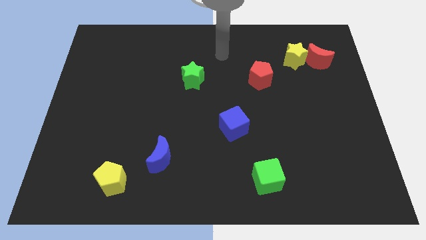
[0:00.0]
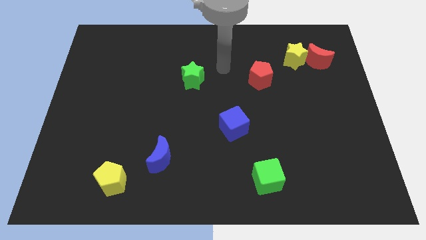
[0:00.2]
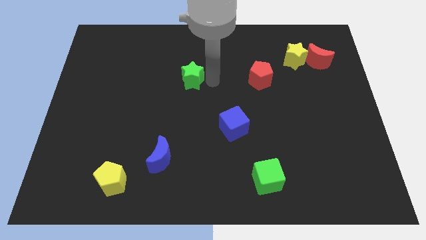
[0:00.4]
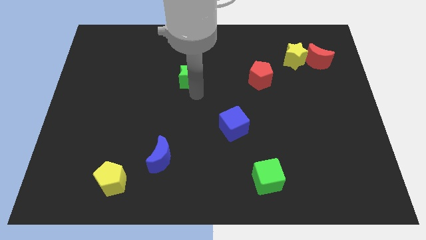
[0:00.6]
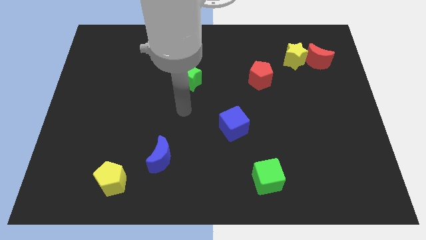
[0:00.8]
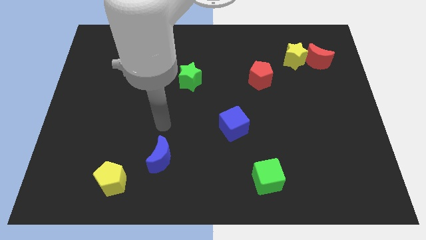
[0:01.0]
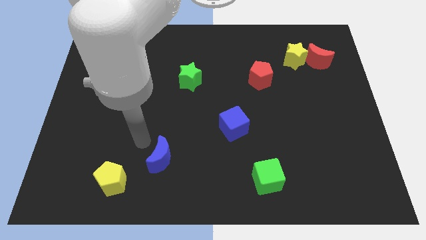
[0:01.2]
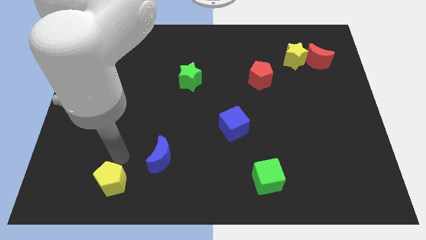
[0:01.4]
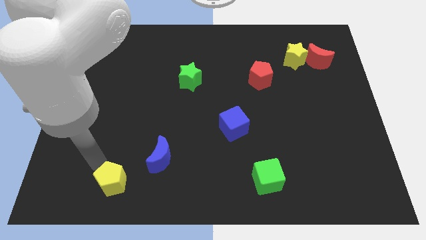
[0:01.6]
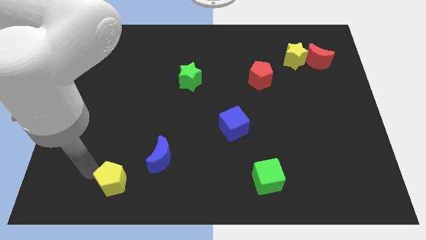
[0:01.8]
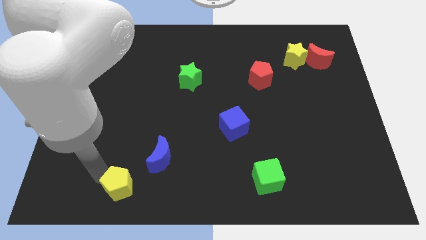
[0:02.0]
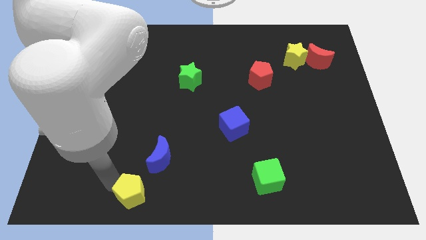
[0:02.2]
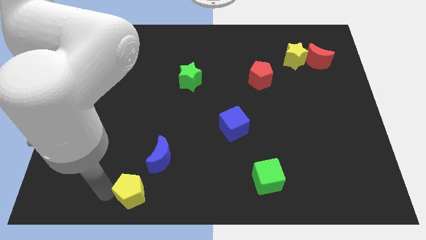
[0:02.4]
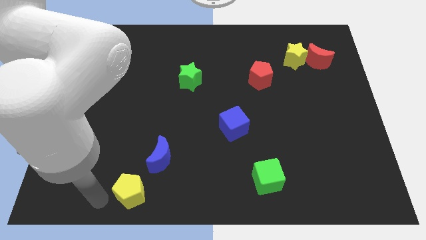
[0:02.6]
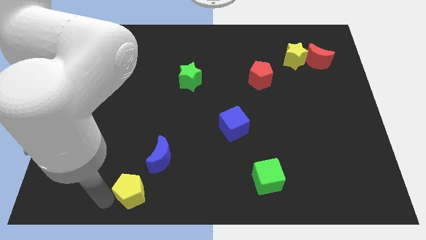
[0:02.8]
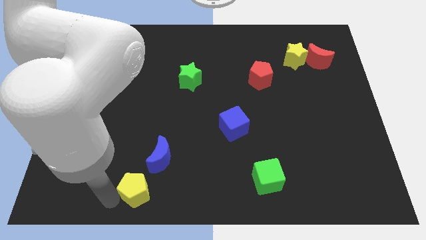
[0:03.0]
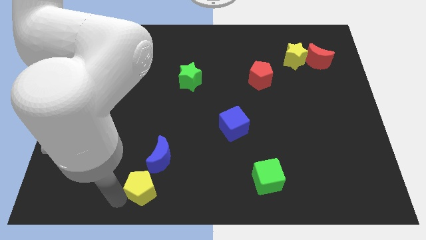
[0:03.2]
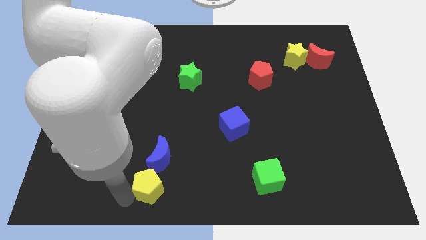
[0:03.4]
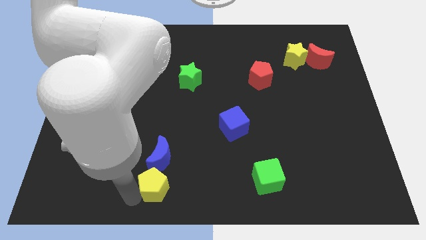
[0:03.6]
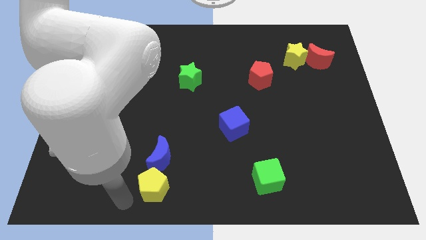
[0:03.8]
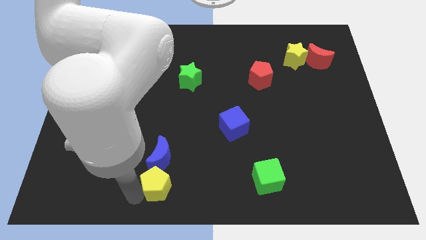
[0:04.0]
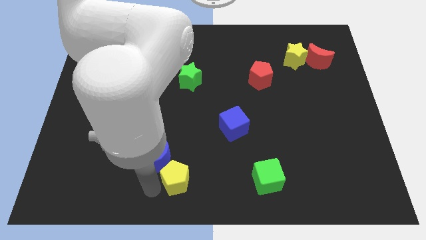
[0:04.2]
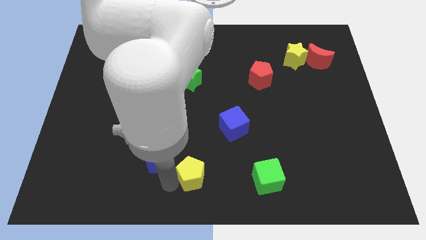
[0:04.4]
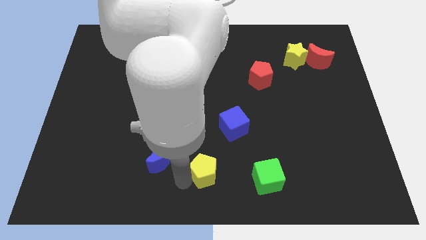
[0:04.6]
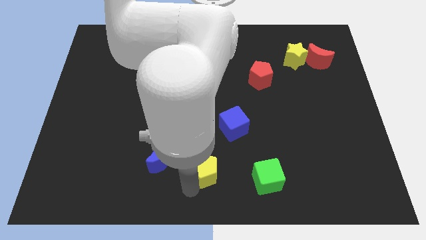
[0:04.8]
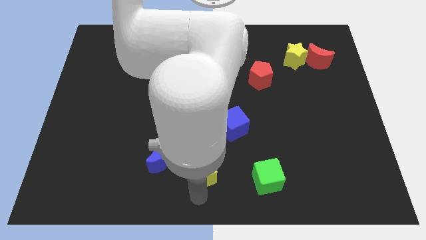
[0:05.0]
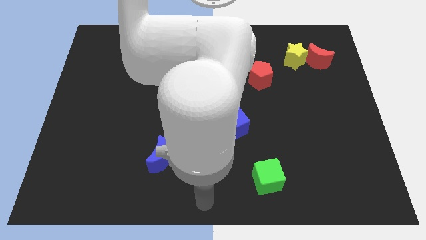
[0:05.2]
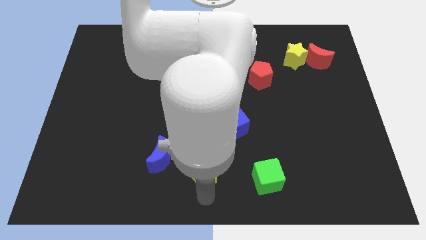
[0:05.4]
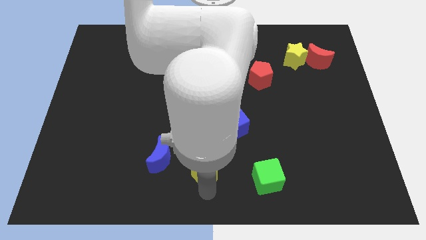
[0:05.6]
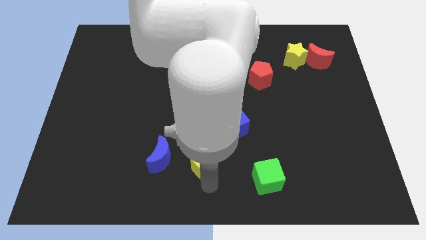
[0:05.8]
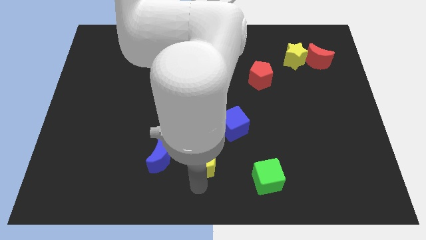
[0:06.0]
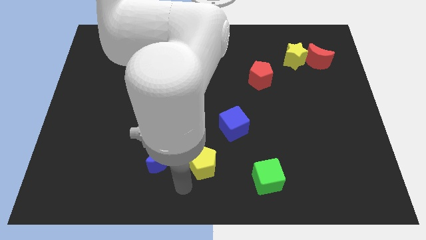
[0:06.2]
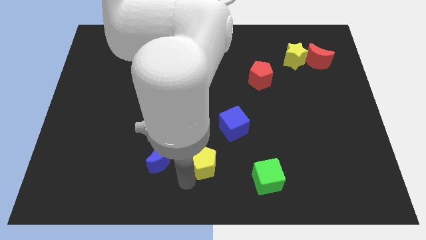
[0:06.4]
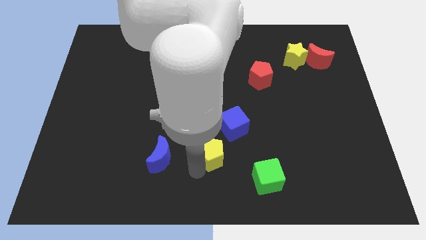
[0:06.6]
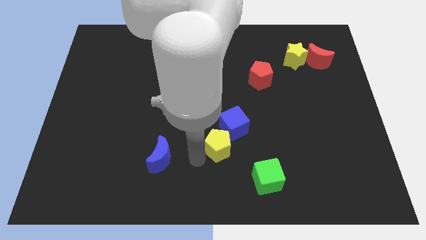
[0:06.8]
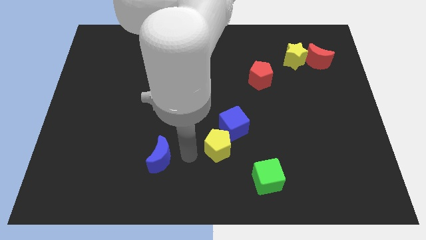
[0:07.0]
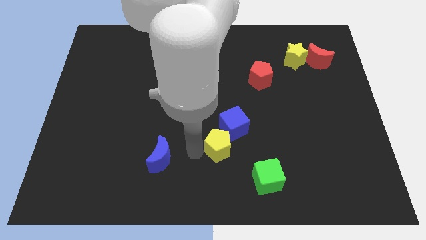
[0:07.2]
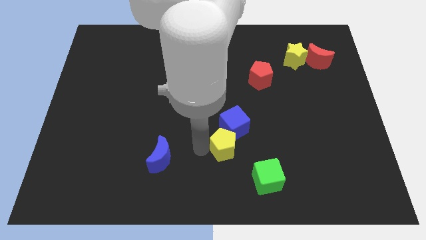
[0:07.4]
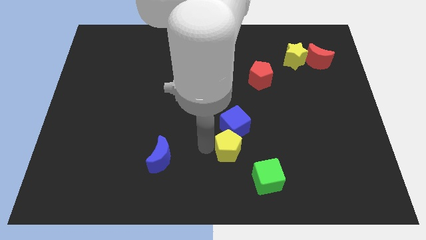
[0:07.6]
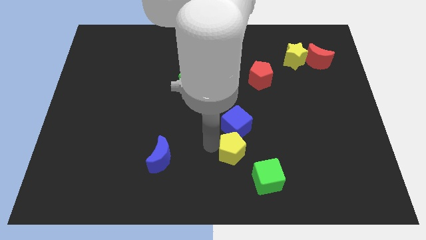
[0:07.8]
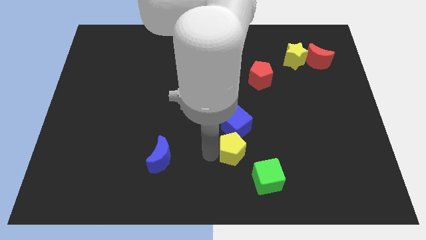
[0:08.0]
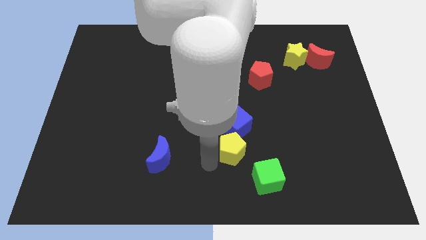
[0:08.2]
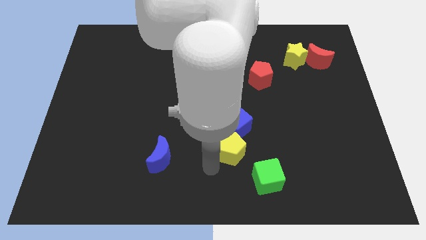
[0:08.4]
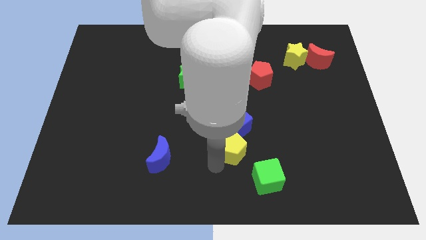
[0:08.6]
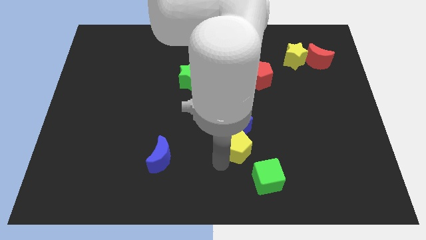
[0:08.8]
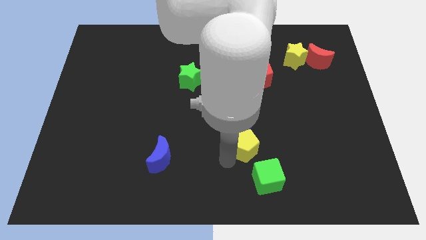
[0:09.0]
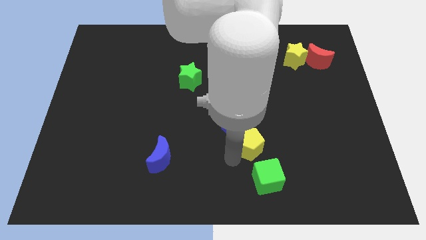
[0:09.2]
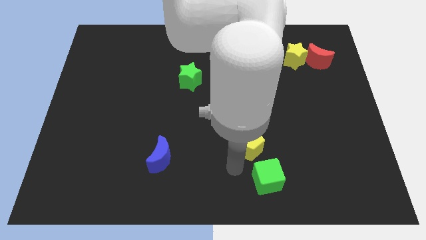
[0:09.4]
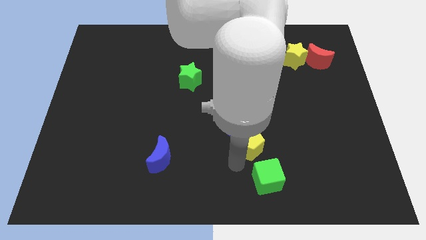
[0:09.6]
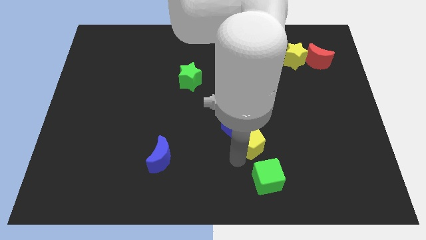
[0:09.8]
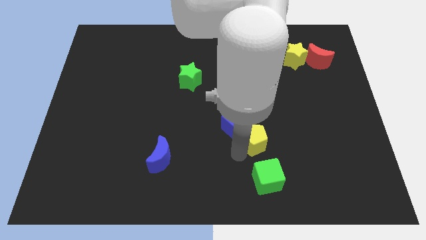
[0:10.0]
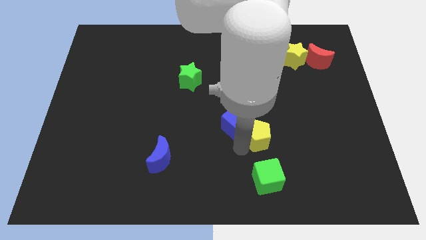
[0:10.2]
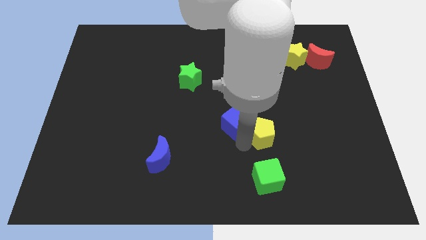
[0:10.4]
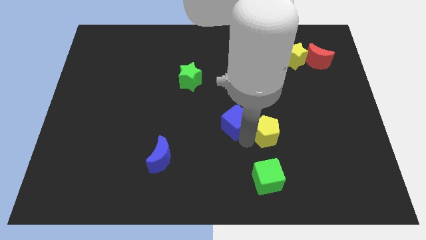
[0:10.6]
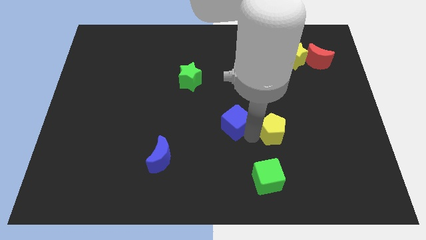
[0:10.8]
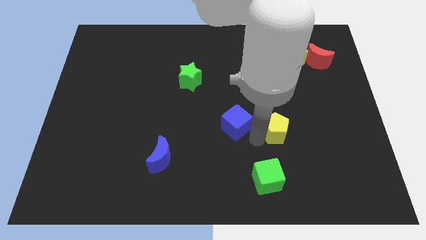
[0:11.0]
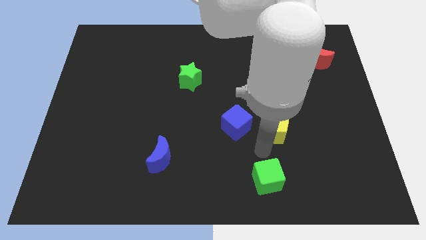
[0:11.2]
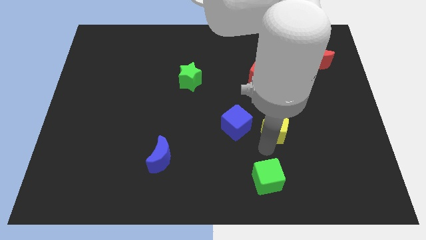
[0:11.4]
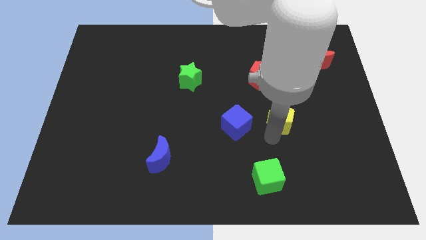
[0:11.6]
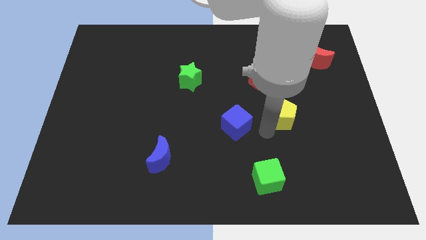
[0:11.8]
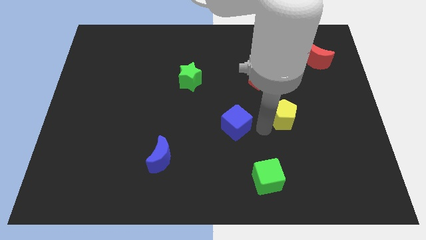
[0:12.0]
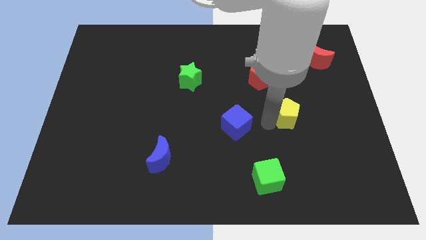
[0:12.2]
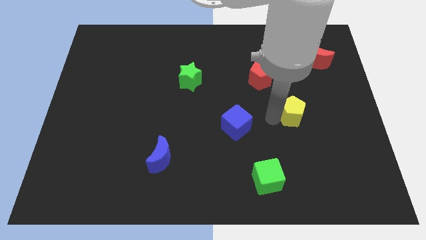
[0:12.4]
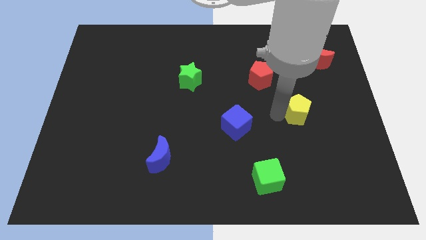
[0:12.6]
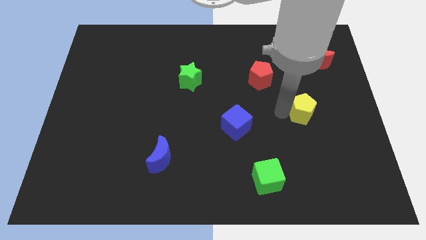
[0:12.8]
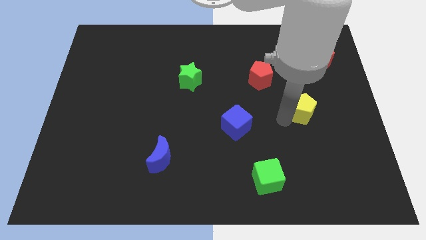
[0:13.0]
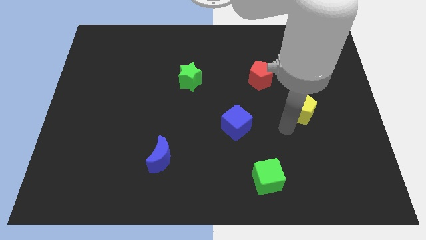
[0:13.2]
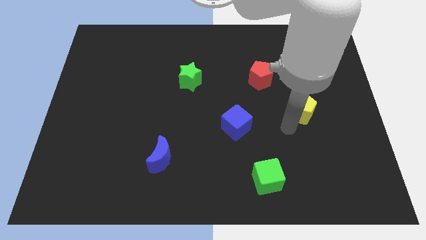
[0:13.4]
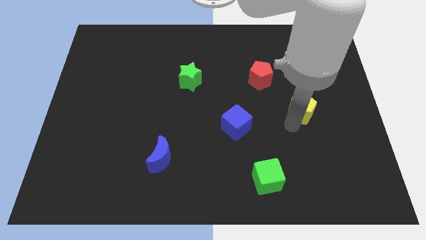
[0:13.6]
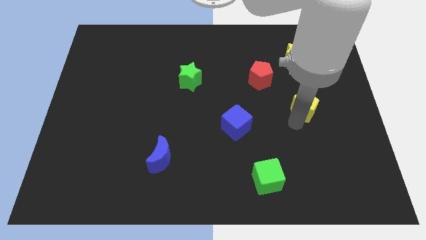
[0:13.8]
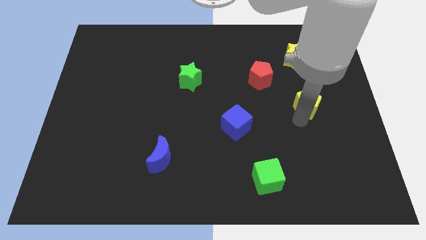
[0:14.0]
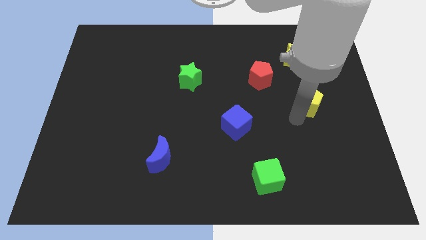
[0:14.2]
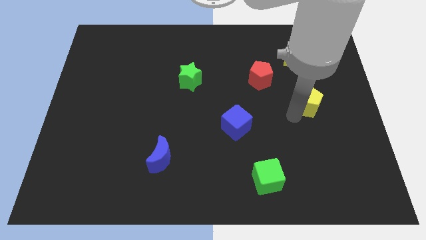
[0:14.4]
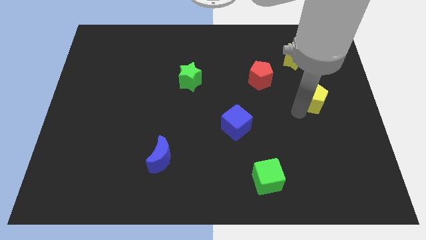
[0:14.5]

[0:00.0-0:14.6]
push the yellow pentagon to the bottom of the red moon
